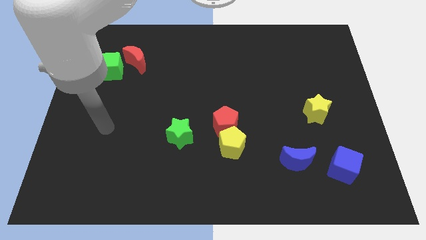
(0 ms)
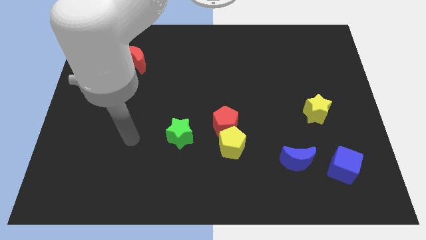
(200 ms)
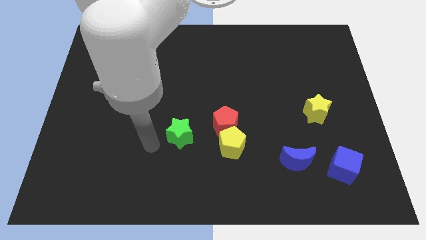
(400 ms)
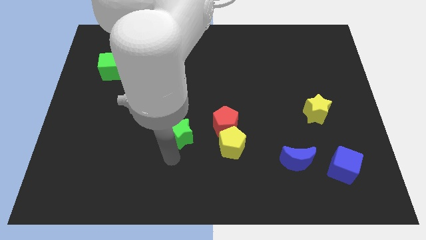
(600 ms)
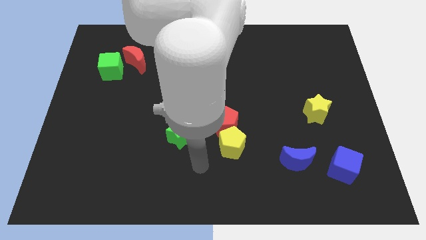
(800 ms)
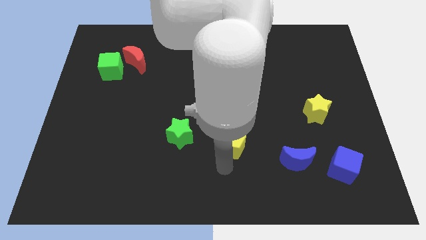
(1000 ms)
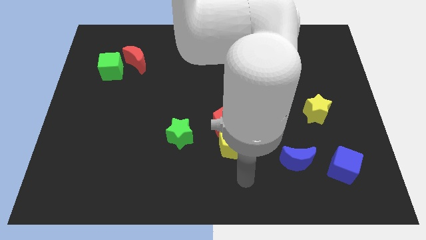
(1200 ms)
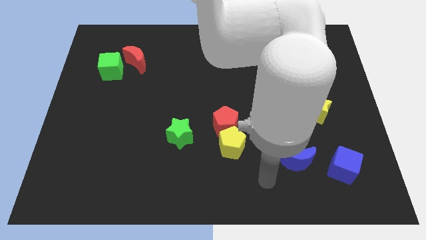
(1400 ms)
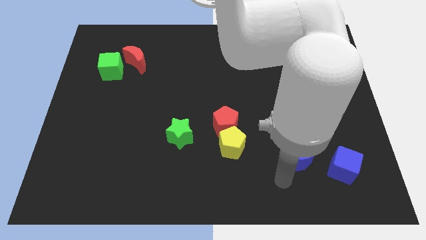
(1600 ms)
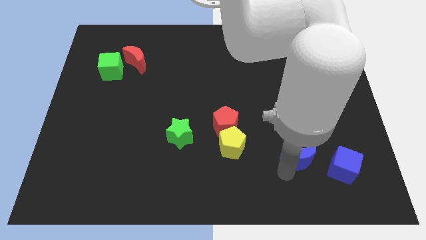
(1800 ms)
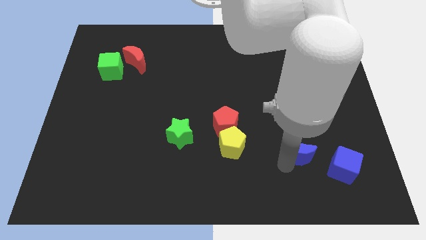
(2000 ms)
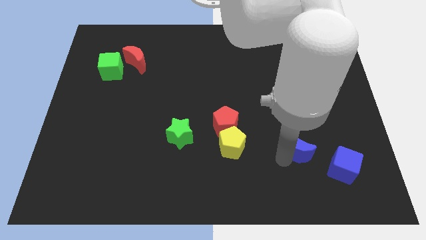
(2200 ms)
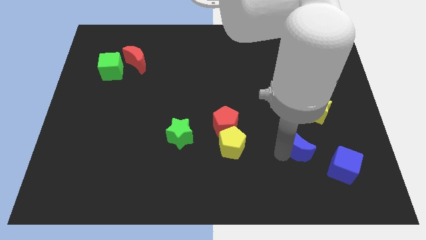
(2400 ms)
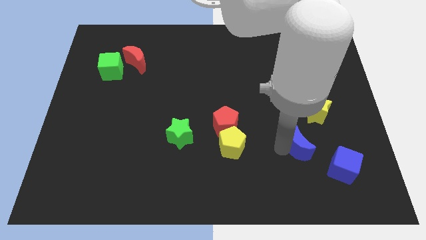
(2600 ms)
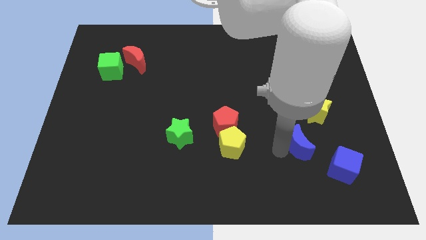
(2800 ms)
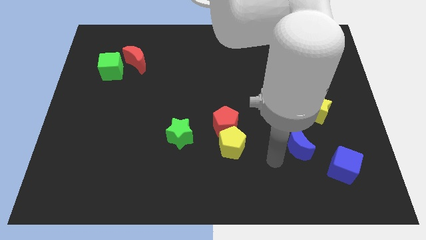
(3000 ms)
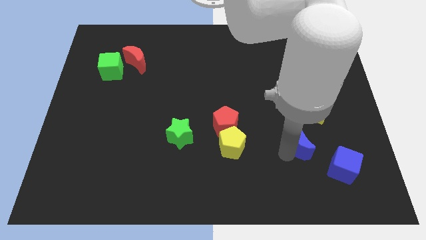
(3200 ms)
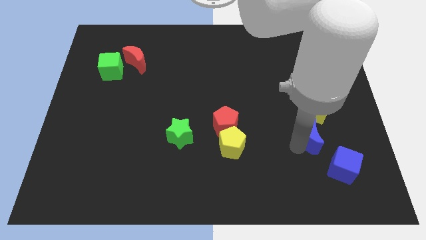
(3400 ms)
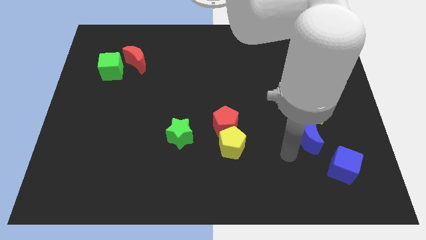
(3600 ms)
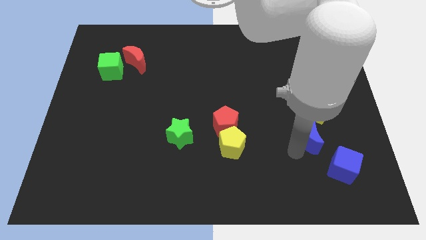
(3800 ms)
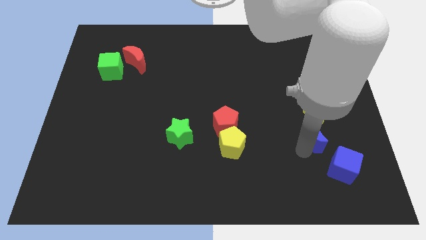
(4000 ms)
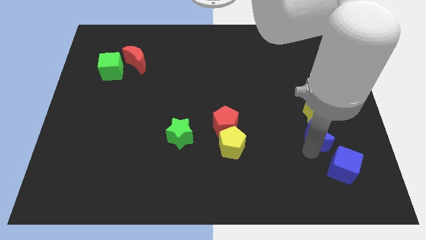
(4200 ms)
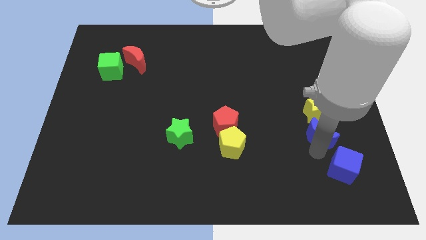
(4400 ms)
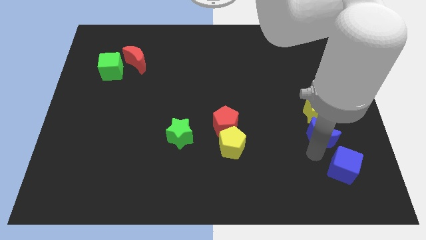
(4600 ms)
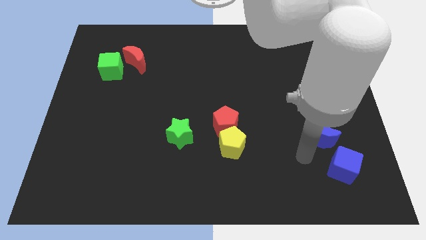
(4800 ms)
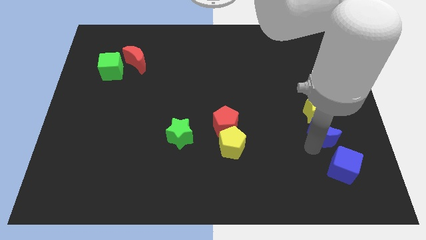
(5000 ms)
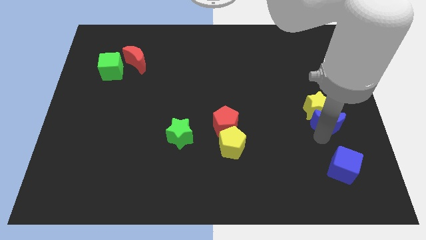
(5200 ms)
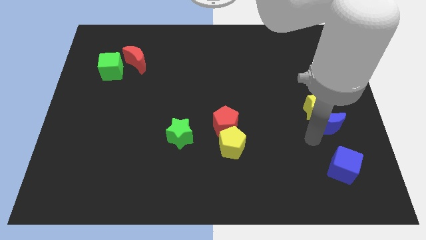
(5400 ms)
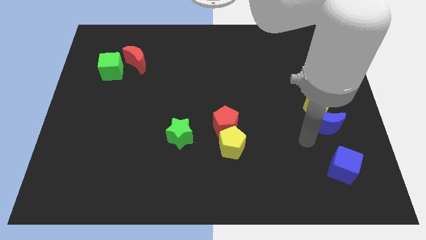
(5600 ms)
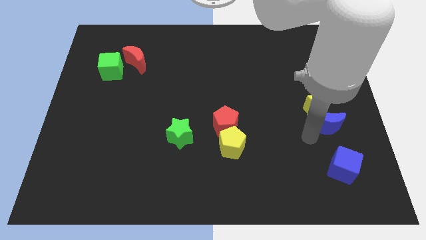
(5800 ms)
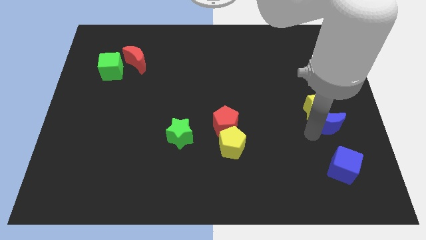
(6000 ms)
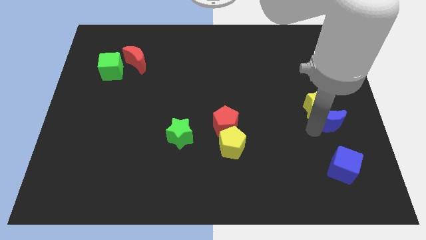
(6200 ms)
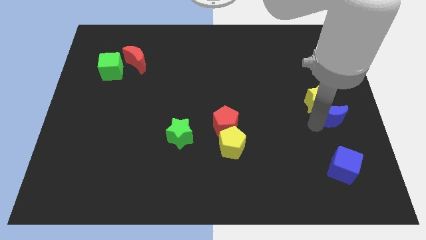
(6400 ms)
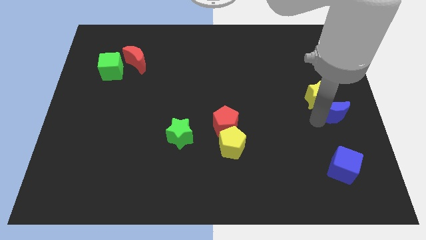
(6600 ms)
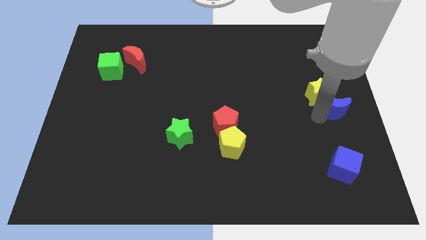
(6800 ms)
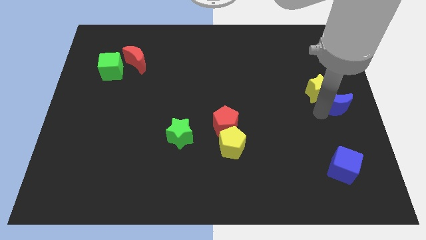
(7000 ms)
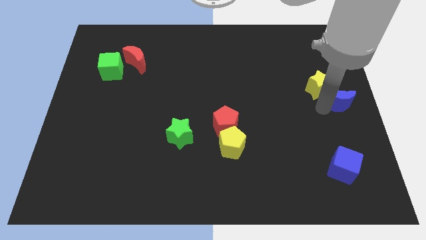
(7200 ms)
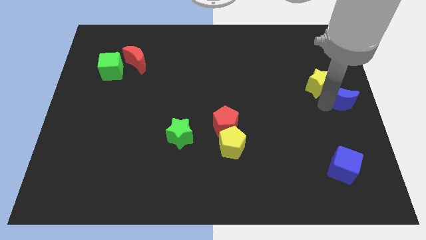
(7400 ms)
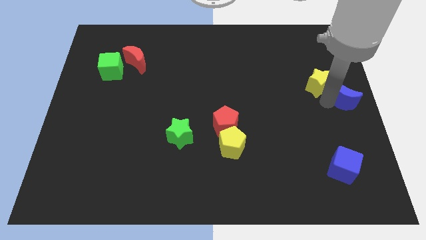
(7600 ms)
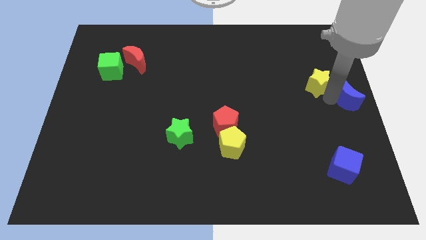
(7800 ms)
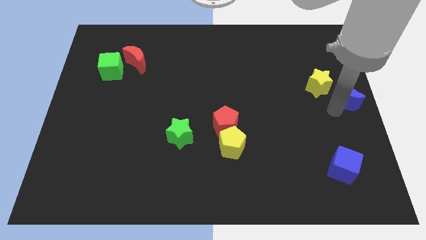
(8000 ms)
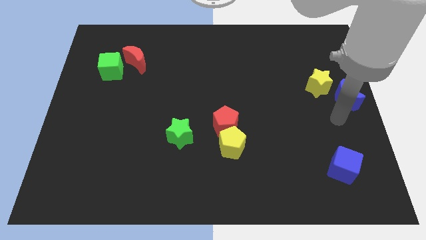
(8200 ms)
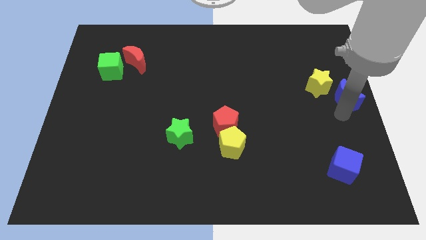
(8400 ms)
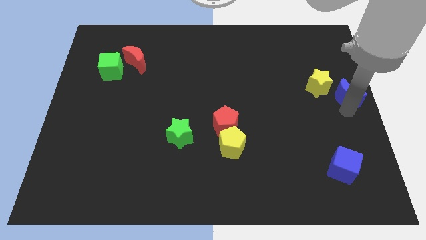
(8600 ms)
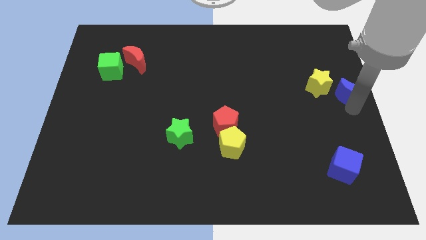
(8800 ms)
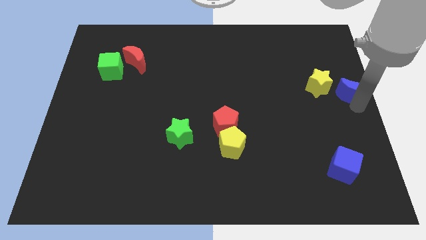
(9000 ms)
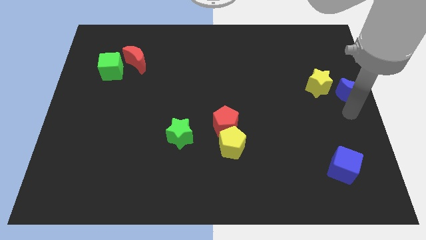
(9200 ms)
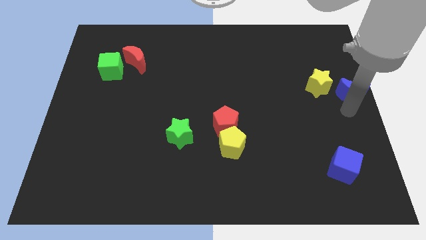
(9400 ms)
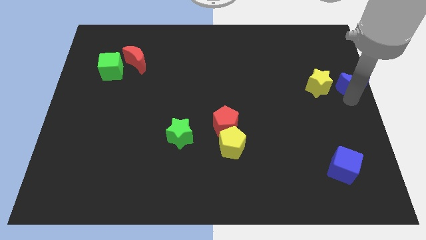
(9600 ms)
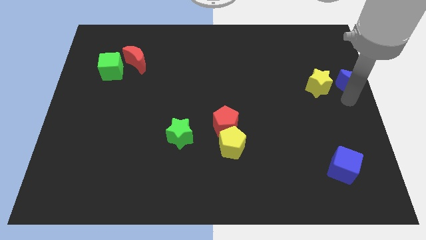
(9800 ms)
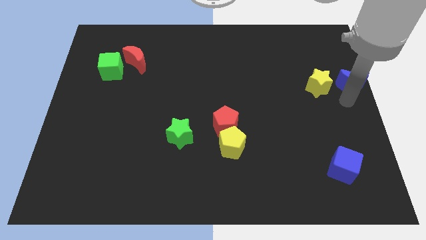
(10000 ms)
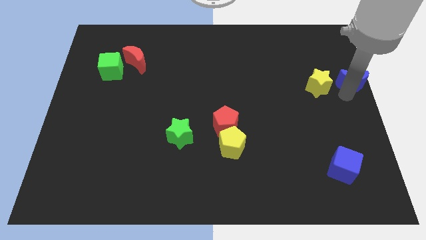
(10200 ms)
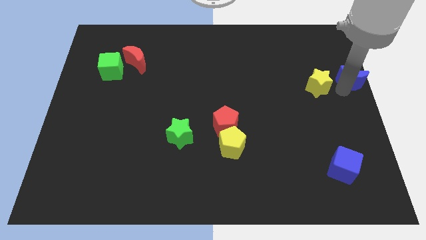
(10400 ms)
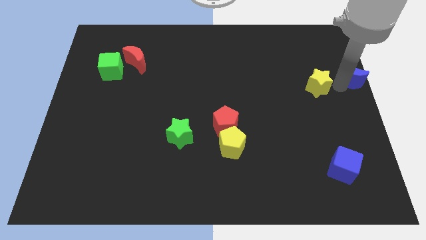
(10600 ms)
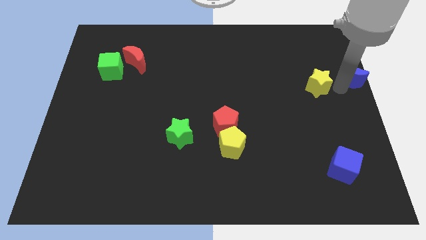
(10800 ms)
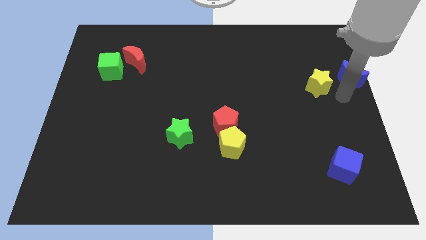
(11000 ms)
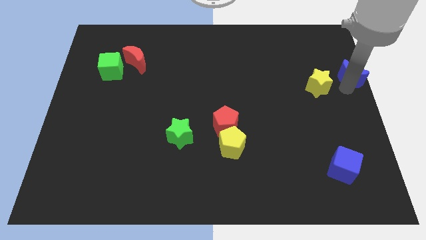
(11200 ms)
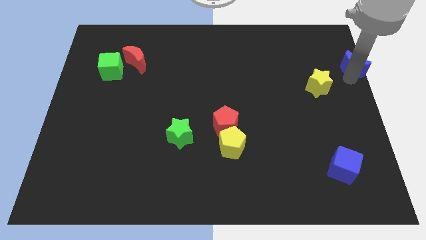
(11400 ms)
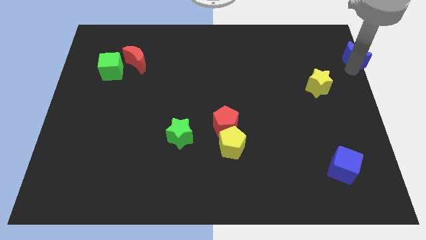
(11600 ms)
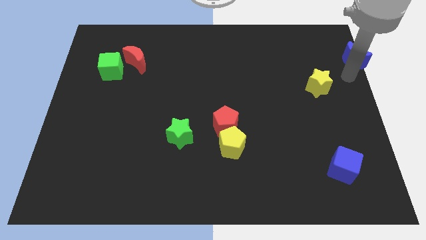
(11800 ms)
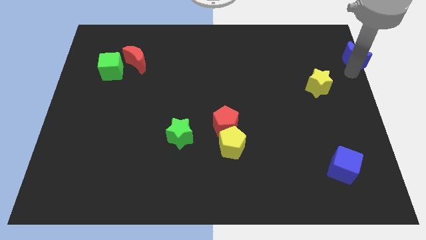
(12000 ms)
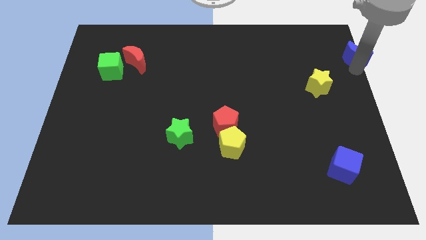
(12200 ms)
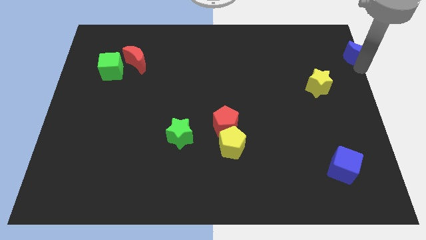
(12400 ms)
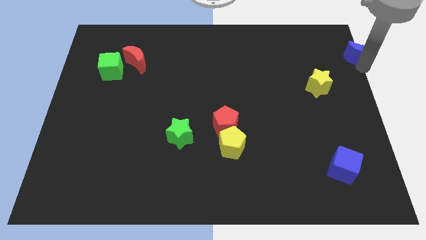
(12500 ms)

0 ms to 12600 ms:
push the blue moon to the top right
